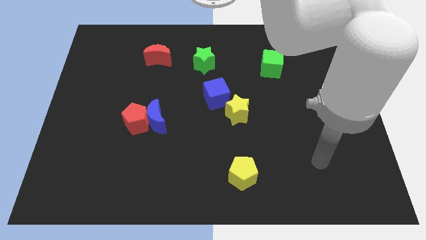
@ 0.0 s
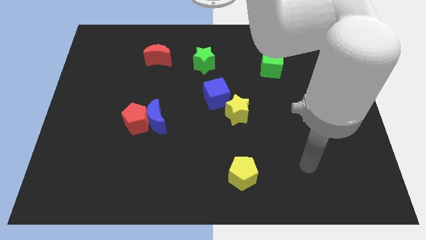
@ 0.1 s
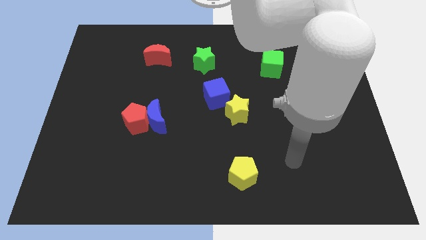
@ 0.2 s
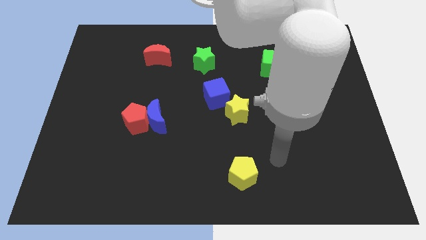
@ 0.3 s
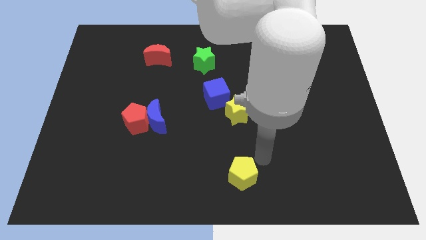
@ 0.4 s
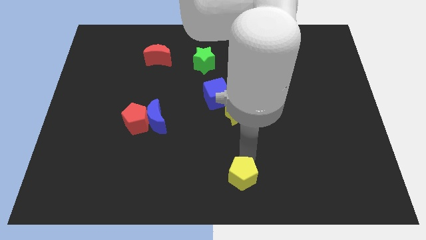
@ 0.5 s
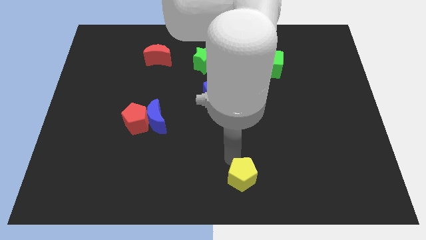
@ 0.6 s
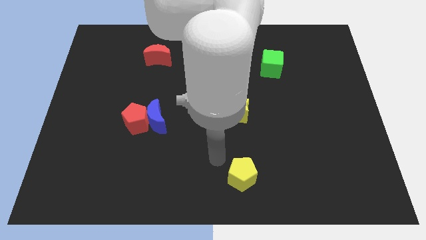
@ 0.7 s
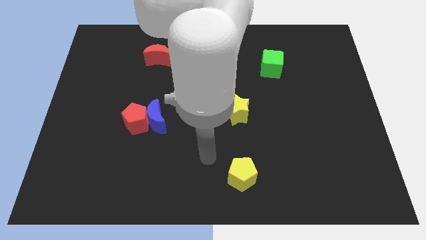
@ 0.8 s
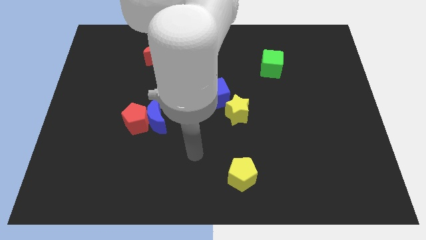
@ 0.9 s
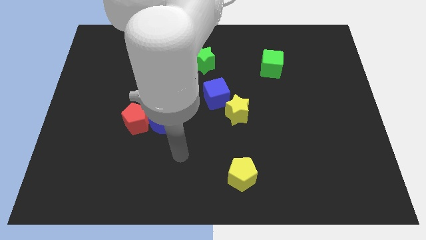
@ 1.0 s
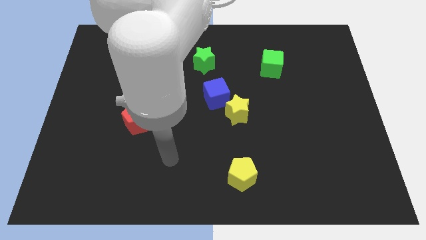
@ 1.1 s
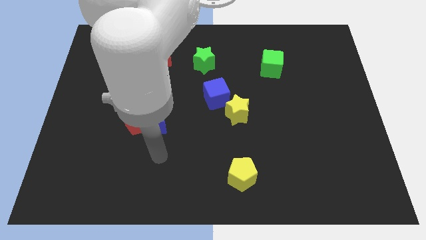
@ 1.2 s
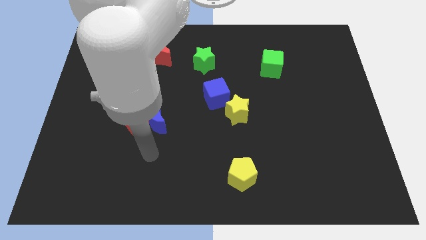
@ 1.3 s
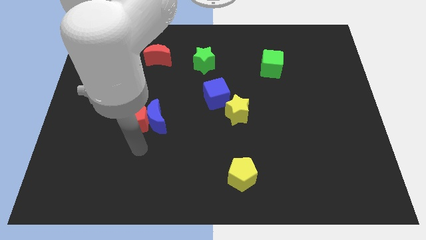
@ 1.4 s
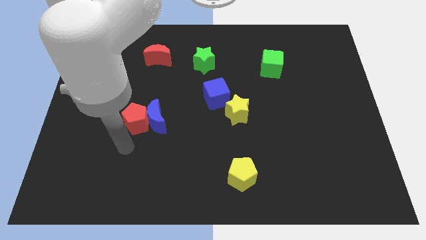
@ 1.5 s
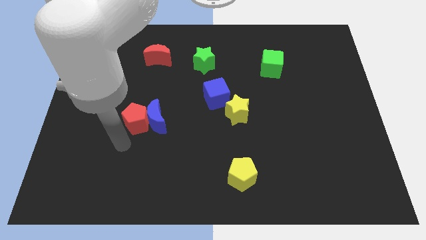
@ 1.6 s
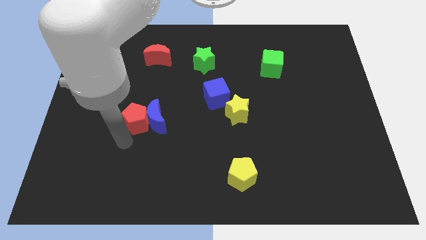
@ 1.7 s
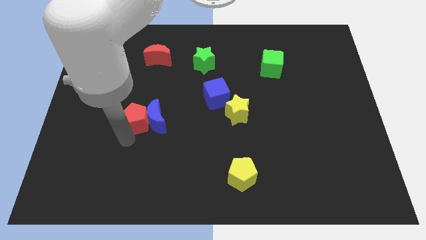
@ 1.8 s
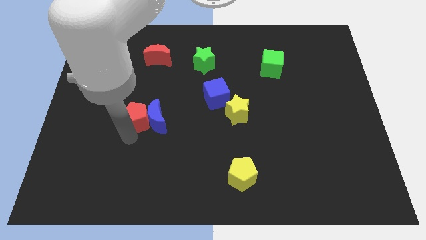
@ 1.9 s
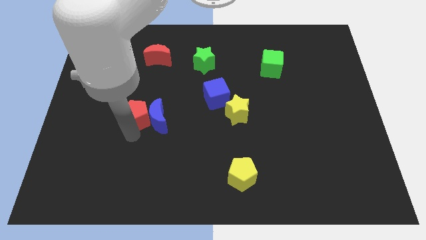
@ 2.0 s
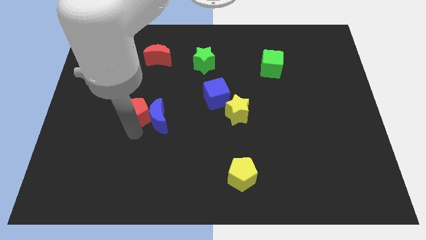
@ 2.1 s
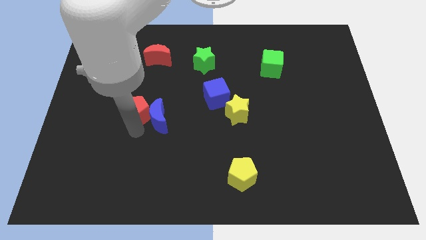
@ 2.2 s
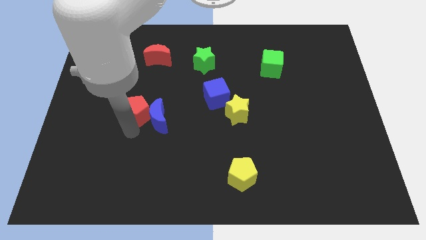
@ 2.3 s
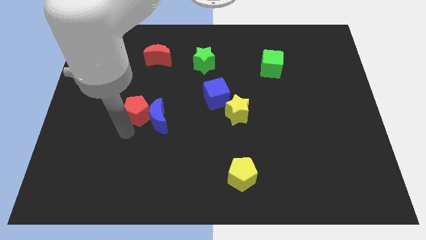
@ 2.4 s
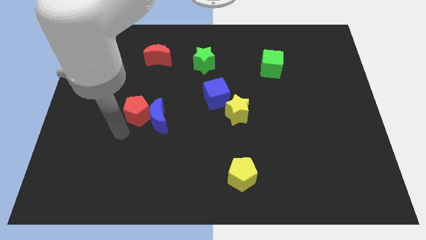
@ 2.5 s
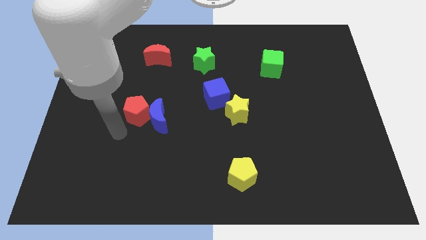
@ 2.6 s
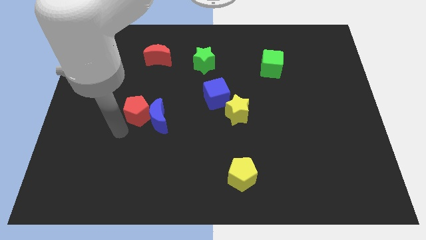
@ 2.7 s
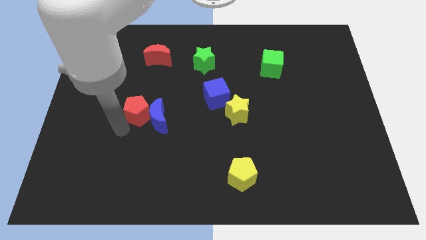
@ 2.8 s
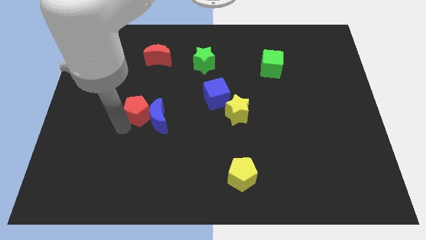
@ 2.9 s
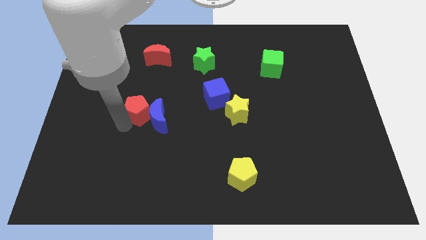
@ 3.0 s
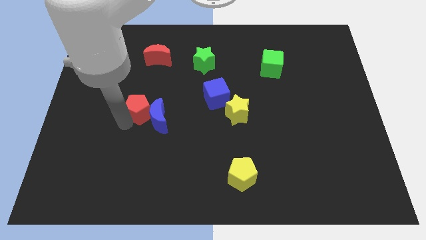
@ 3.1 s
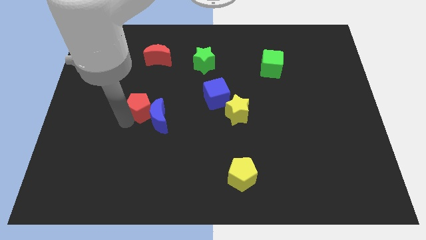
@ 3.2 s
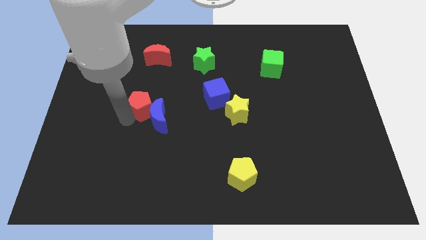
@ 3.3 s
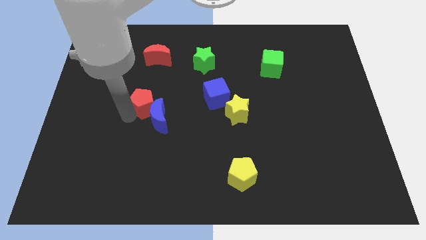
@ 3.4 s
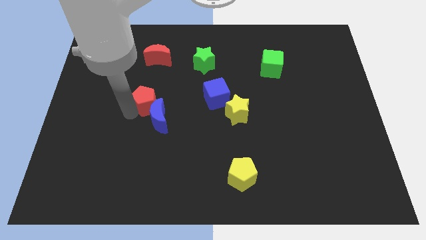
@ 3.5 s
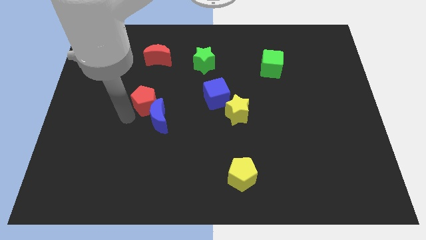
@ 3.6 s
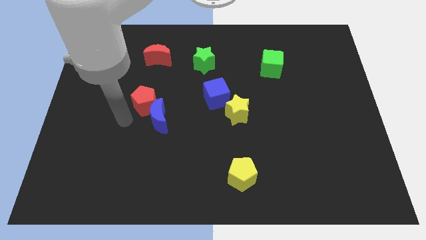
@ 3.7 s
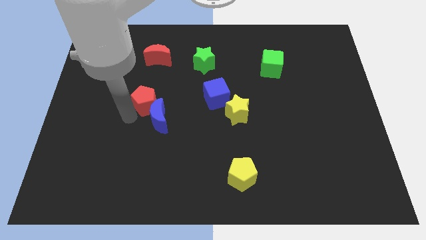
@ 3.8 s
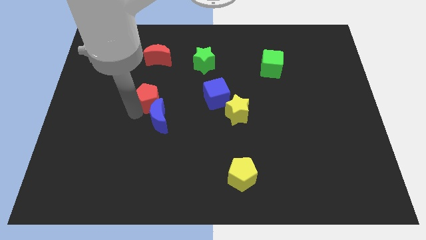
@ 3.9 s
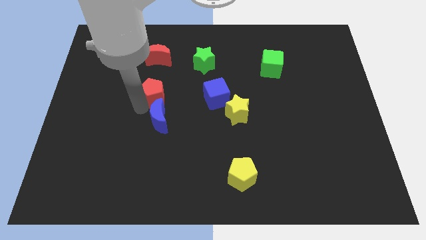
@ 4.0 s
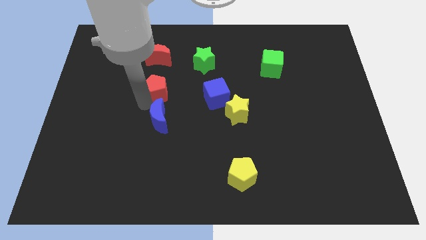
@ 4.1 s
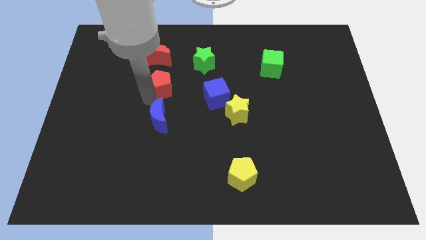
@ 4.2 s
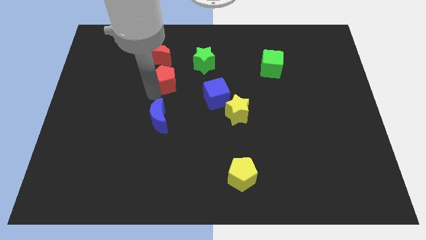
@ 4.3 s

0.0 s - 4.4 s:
put the red pentagon diagonally down and to the left of the green star

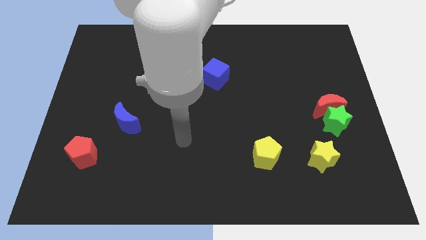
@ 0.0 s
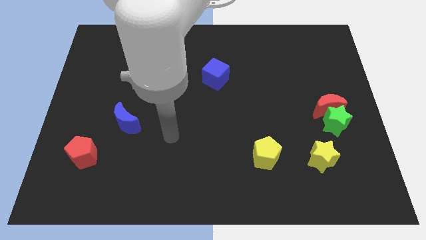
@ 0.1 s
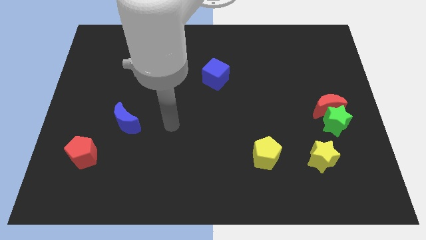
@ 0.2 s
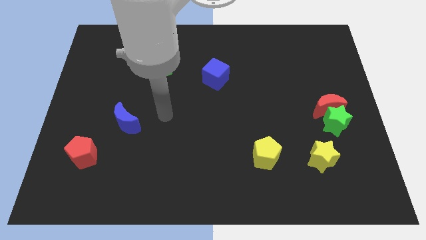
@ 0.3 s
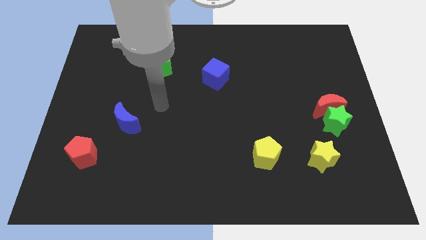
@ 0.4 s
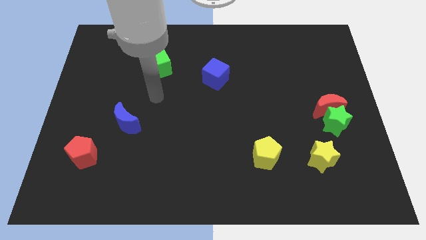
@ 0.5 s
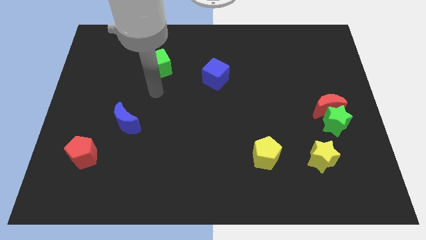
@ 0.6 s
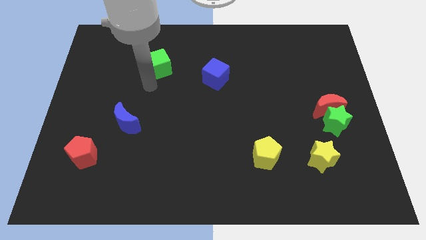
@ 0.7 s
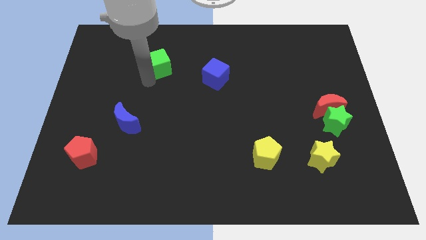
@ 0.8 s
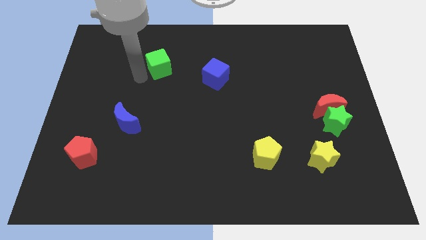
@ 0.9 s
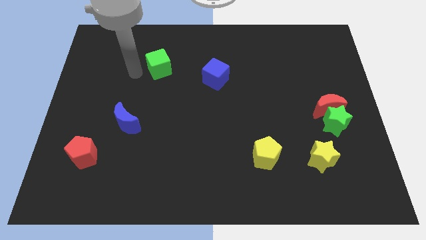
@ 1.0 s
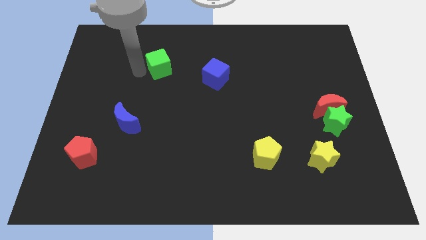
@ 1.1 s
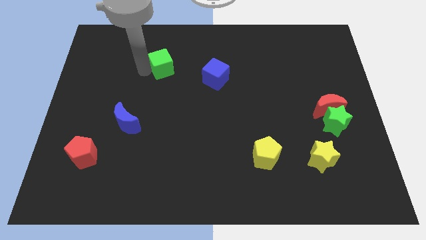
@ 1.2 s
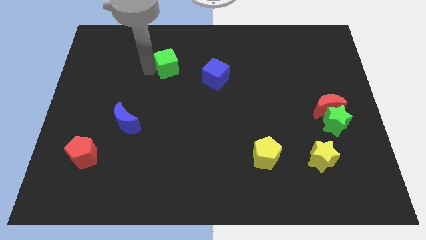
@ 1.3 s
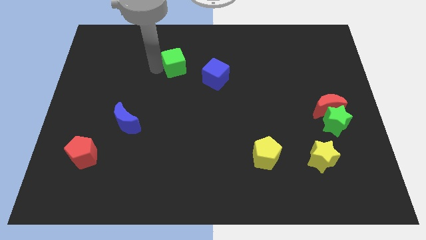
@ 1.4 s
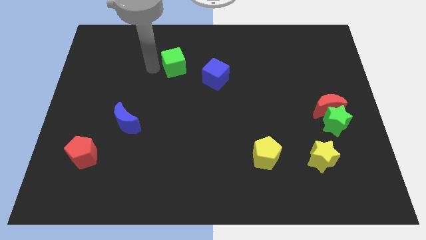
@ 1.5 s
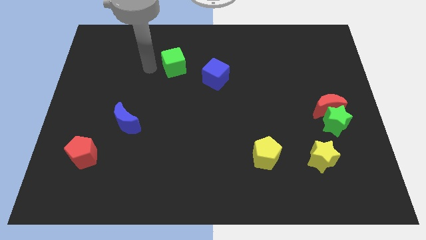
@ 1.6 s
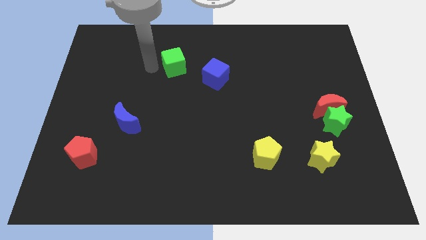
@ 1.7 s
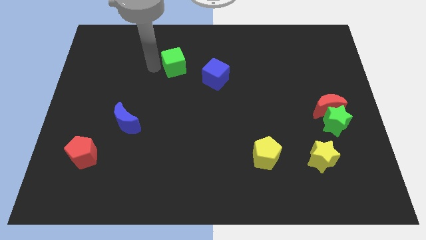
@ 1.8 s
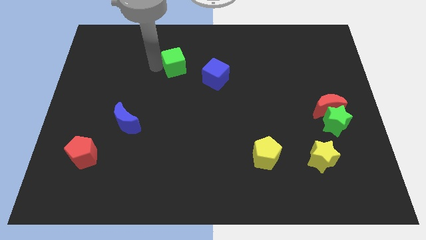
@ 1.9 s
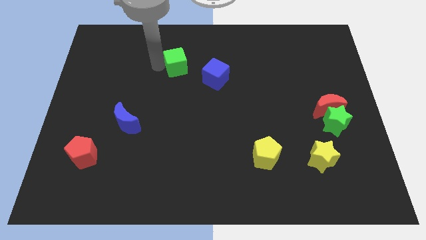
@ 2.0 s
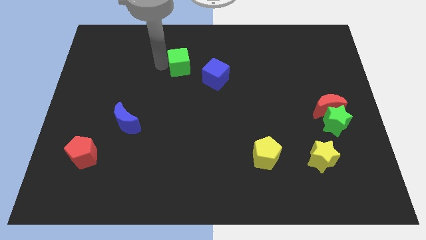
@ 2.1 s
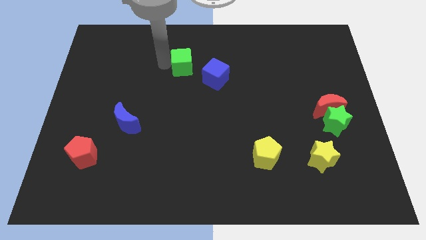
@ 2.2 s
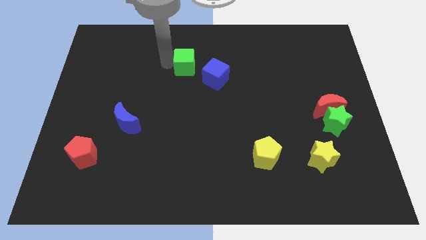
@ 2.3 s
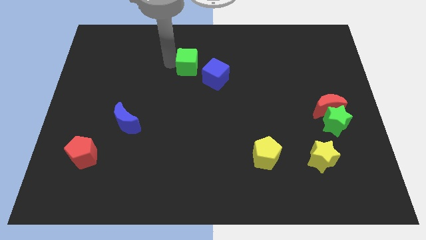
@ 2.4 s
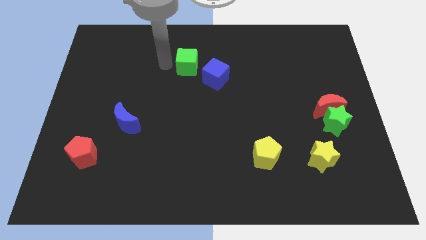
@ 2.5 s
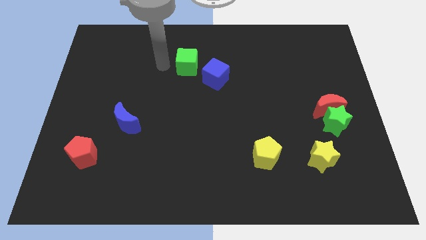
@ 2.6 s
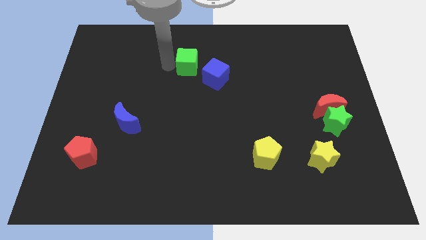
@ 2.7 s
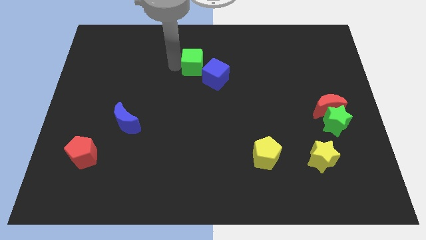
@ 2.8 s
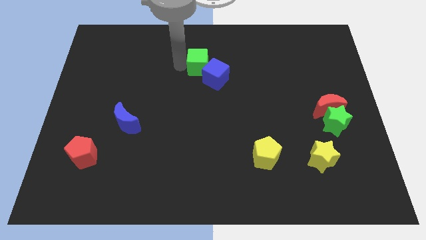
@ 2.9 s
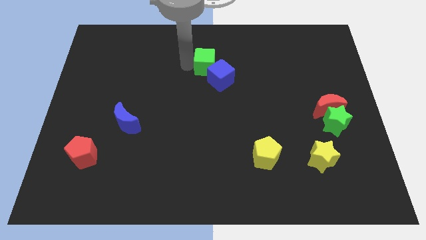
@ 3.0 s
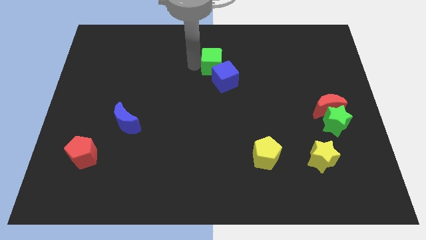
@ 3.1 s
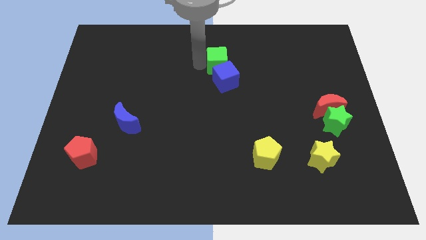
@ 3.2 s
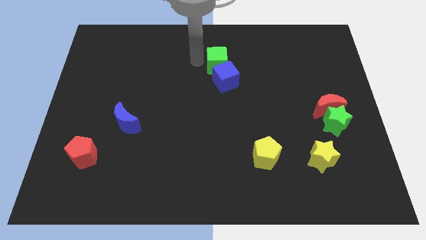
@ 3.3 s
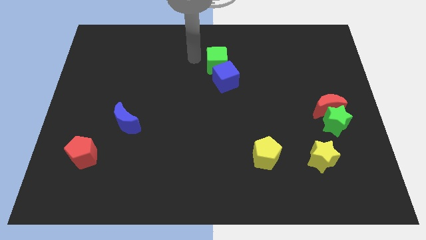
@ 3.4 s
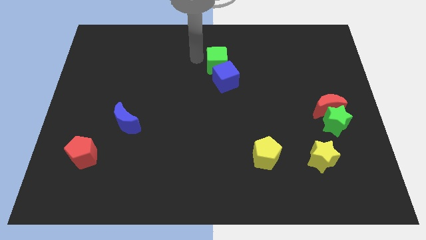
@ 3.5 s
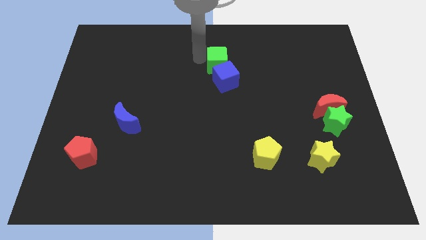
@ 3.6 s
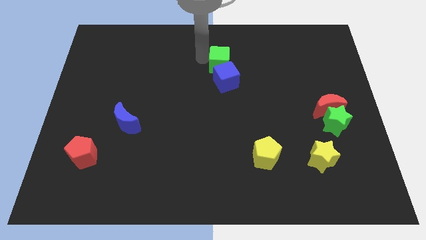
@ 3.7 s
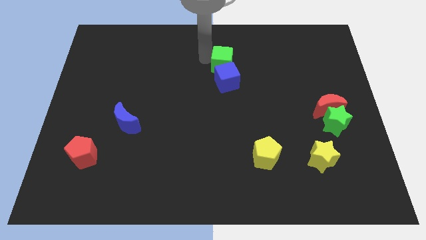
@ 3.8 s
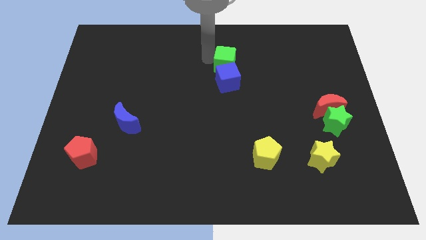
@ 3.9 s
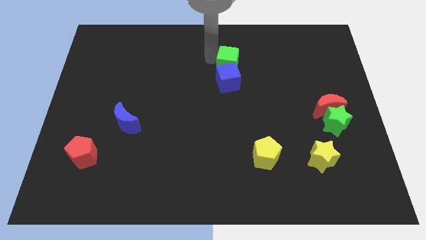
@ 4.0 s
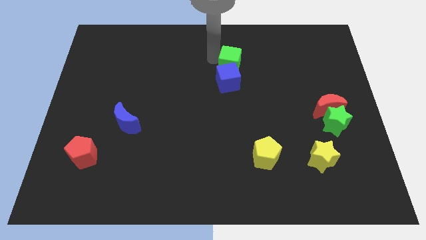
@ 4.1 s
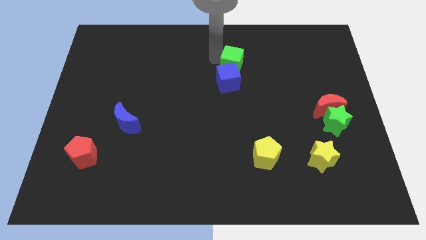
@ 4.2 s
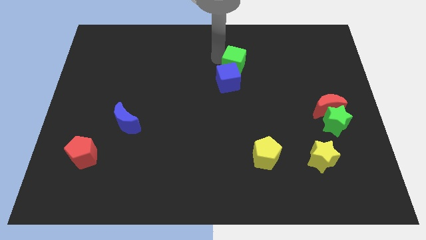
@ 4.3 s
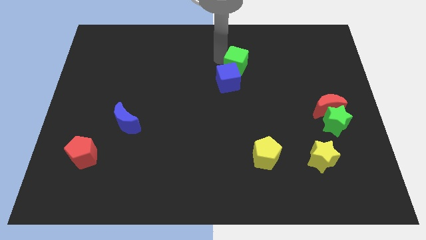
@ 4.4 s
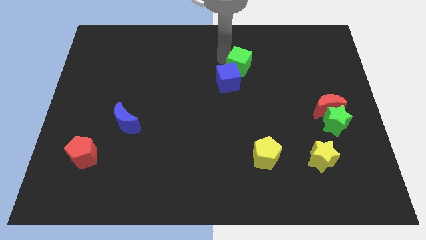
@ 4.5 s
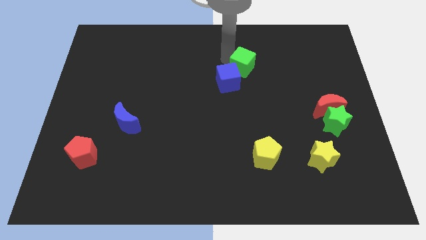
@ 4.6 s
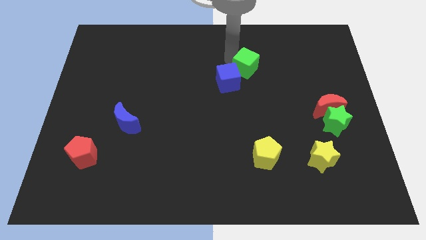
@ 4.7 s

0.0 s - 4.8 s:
move the green cube to the right of the blue cube
